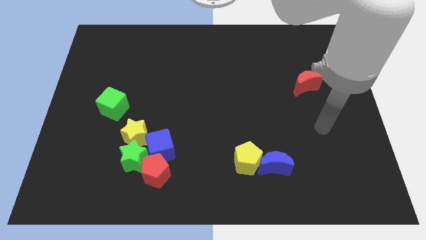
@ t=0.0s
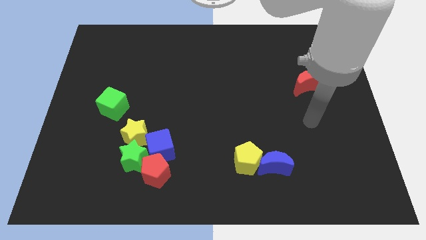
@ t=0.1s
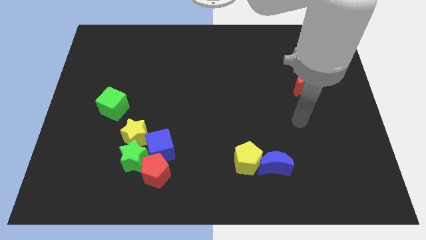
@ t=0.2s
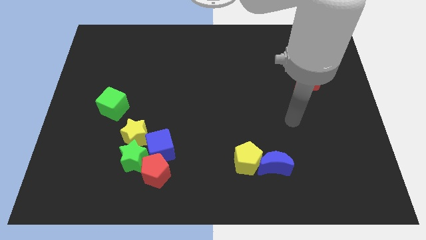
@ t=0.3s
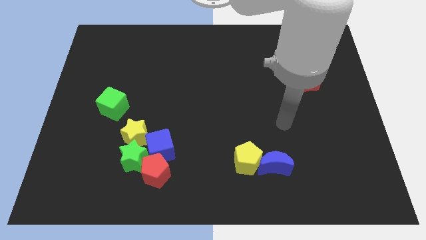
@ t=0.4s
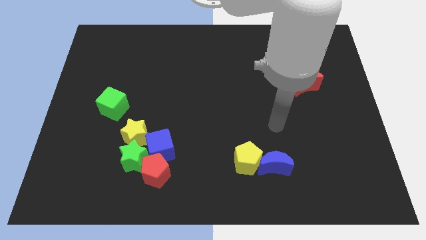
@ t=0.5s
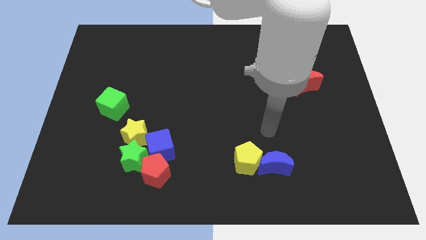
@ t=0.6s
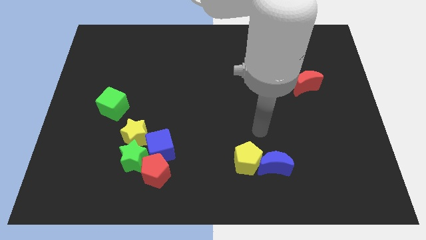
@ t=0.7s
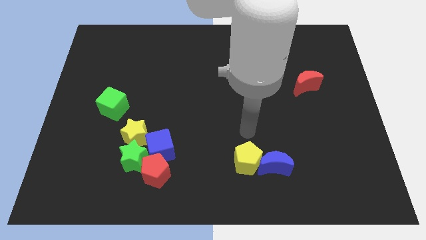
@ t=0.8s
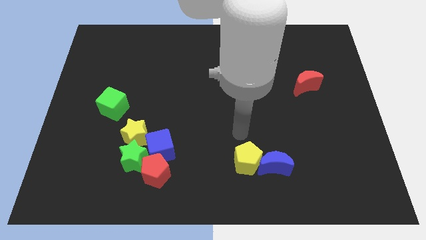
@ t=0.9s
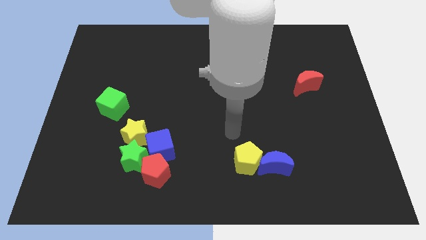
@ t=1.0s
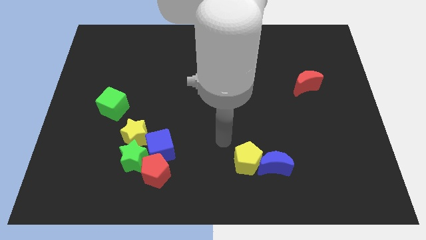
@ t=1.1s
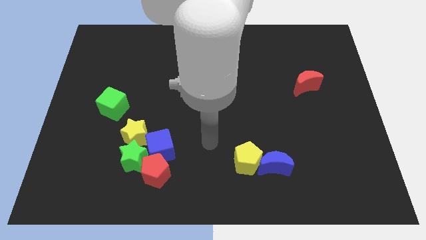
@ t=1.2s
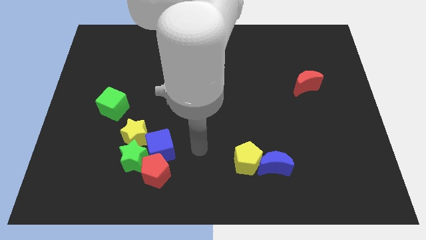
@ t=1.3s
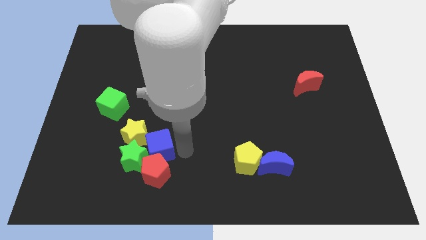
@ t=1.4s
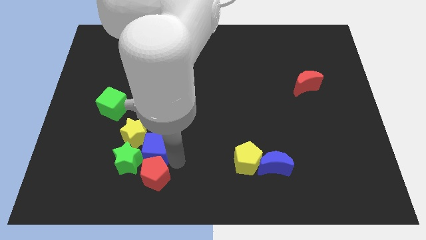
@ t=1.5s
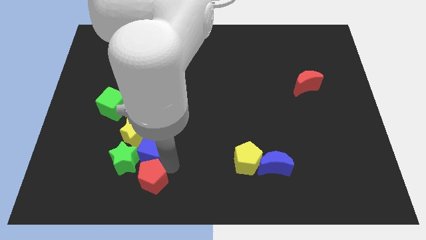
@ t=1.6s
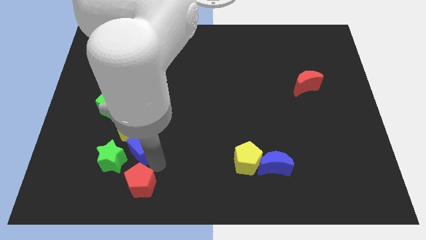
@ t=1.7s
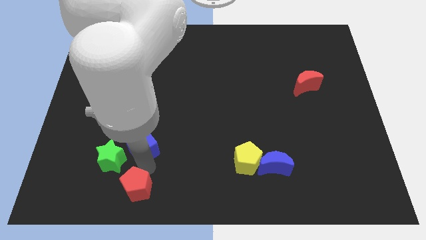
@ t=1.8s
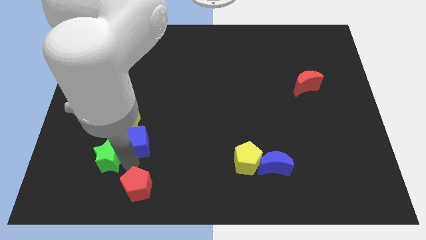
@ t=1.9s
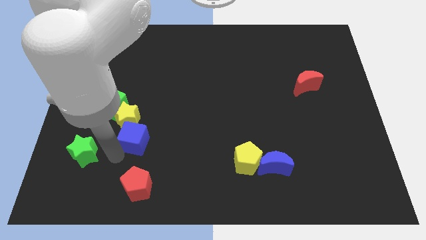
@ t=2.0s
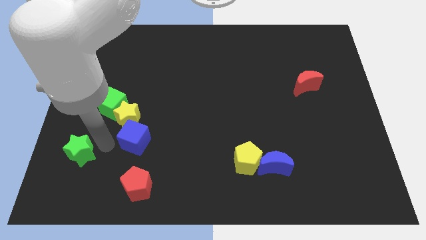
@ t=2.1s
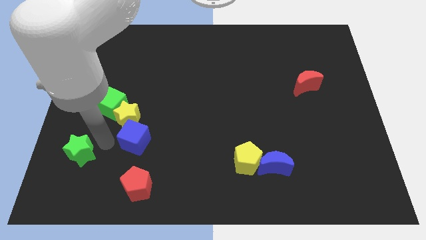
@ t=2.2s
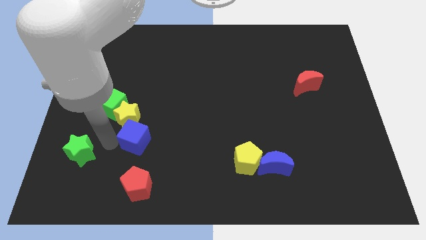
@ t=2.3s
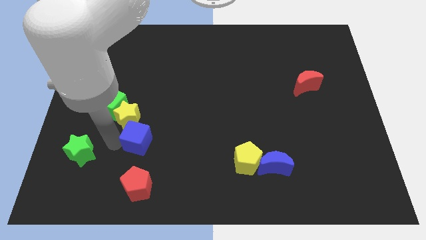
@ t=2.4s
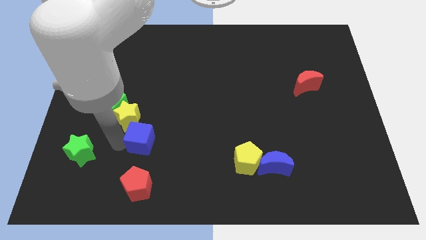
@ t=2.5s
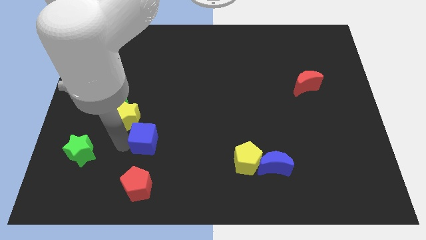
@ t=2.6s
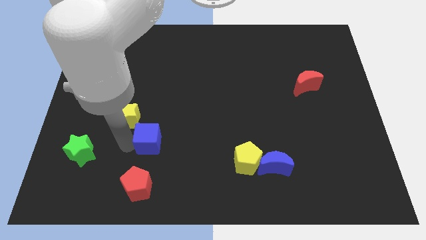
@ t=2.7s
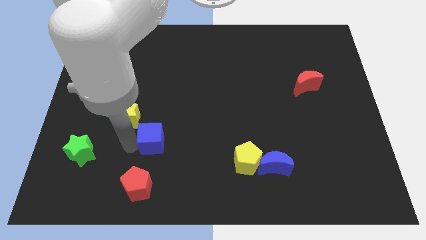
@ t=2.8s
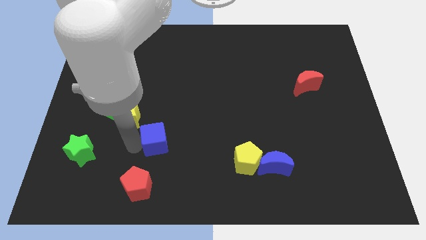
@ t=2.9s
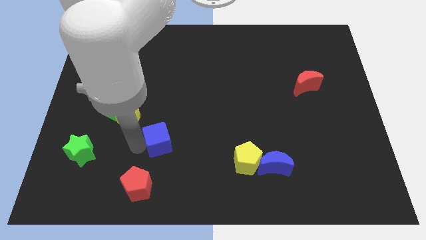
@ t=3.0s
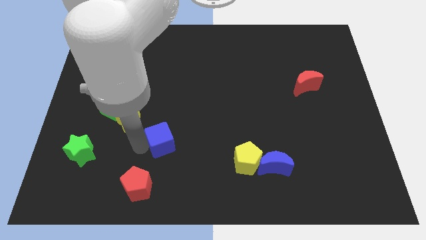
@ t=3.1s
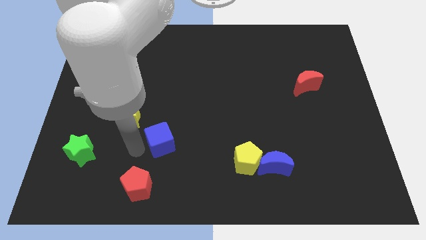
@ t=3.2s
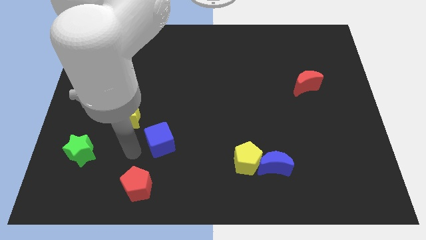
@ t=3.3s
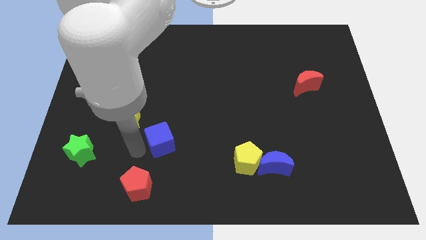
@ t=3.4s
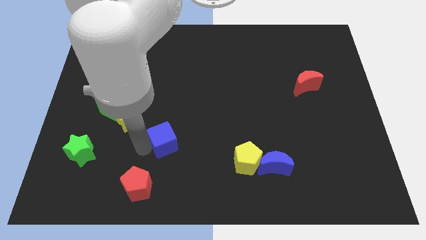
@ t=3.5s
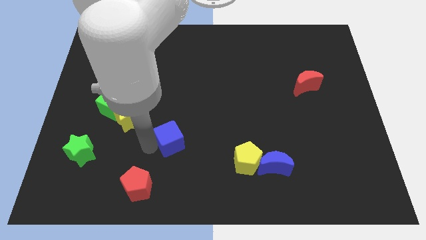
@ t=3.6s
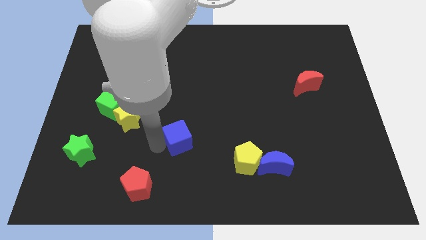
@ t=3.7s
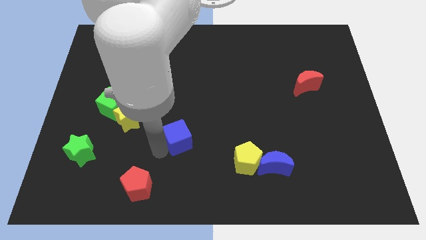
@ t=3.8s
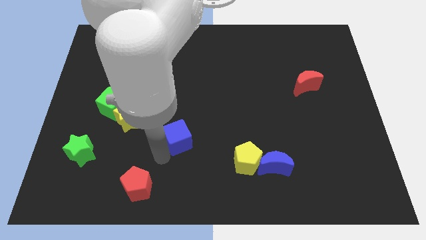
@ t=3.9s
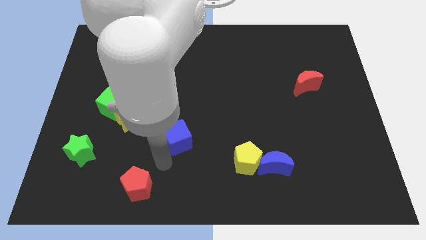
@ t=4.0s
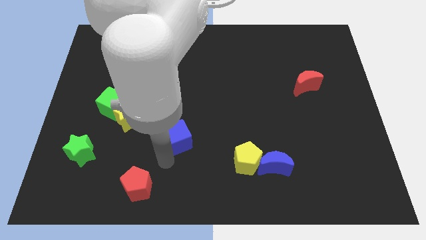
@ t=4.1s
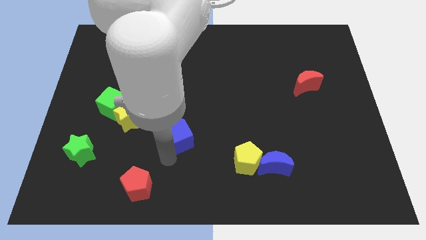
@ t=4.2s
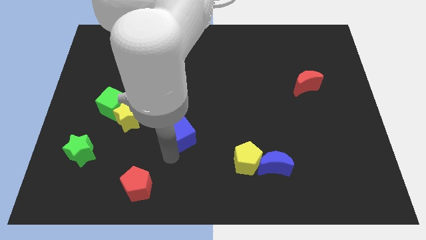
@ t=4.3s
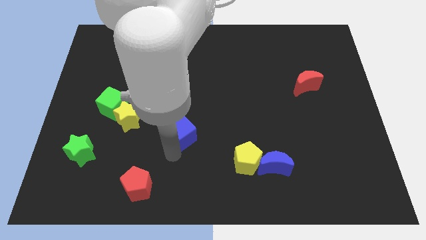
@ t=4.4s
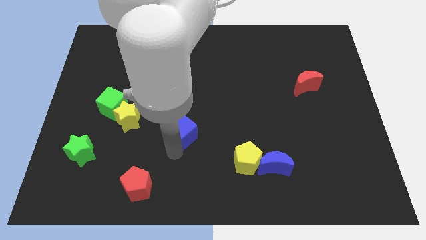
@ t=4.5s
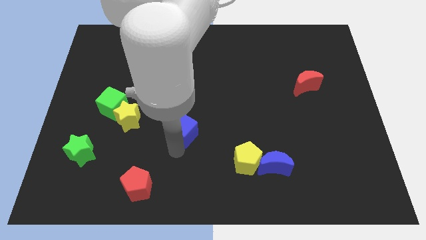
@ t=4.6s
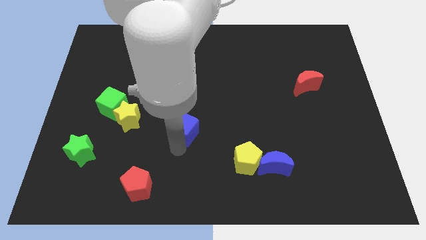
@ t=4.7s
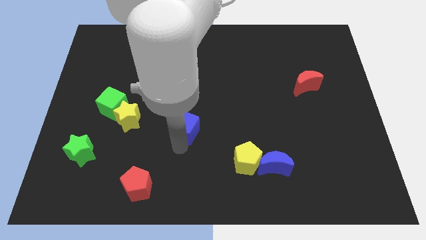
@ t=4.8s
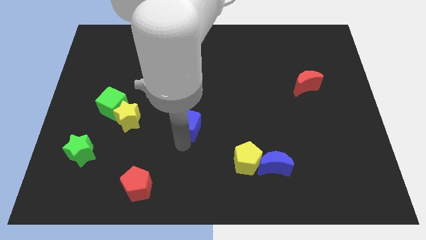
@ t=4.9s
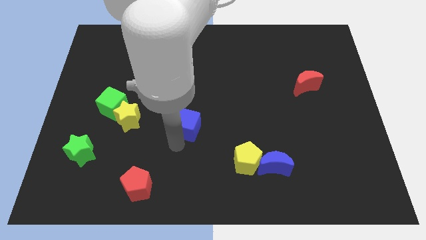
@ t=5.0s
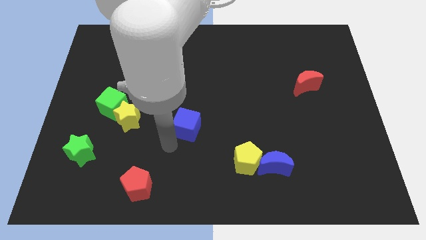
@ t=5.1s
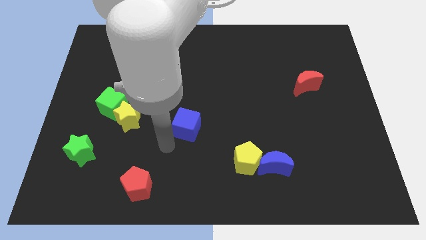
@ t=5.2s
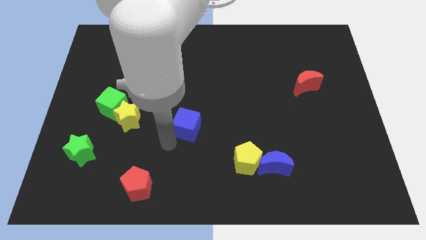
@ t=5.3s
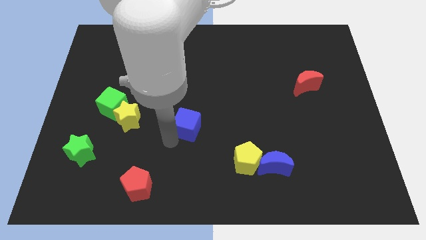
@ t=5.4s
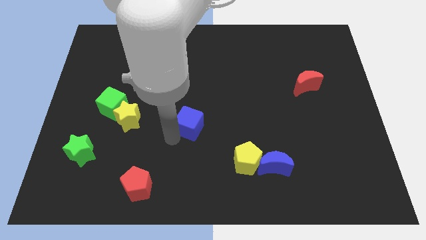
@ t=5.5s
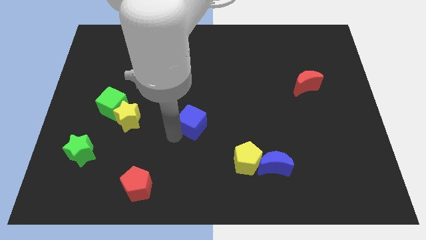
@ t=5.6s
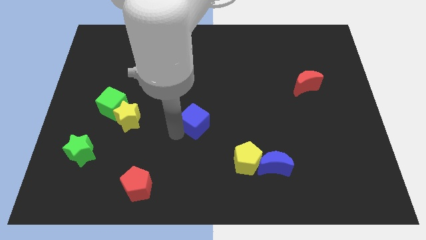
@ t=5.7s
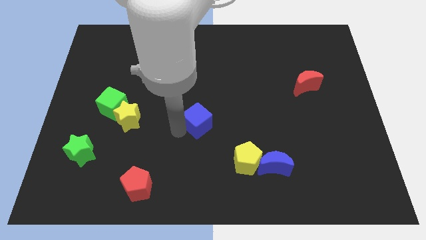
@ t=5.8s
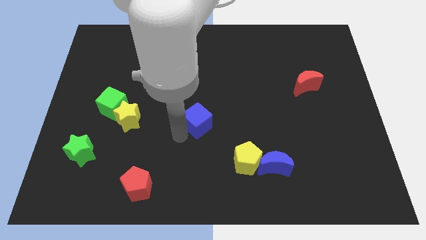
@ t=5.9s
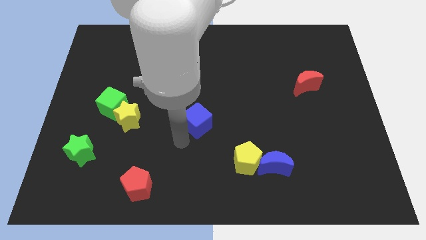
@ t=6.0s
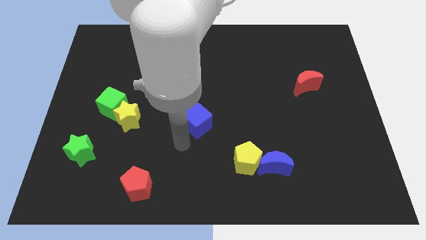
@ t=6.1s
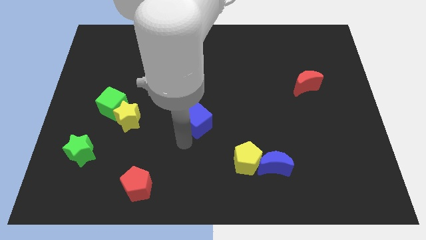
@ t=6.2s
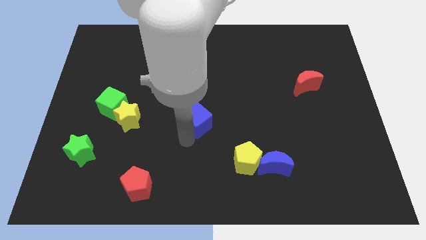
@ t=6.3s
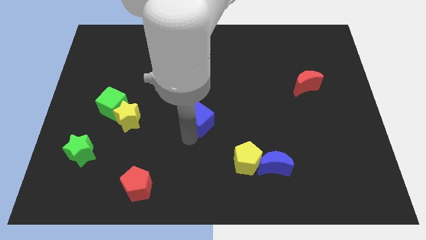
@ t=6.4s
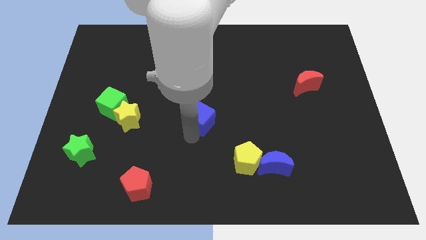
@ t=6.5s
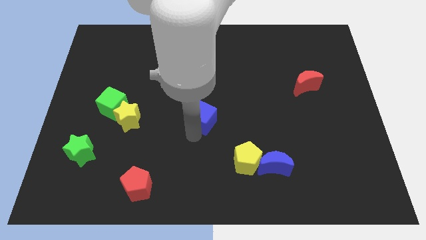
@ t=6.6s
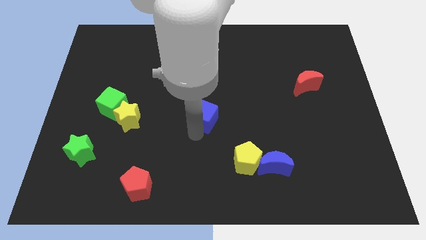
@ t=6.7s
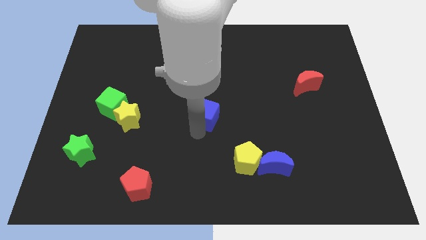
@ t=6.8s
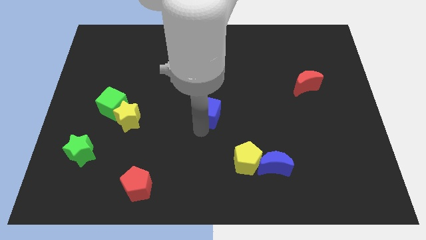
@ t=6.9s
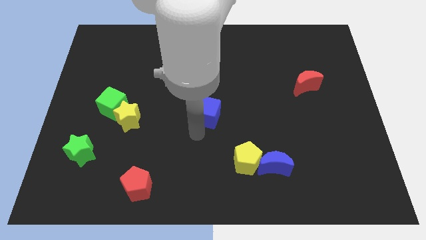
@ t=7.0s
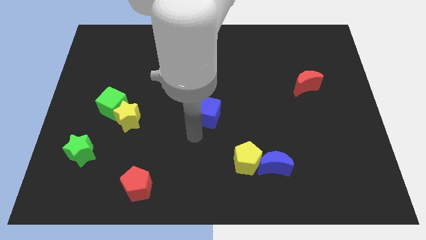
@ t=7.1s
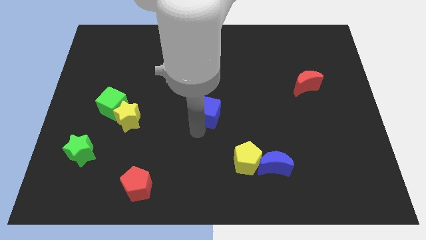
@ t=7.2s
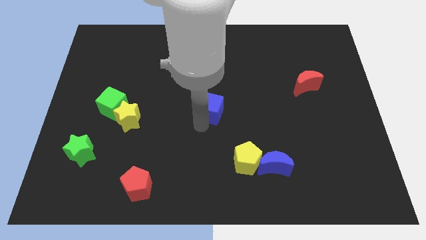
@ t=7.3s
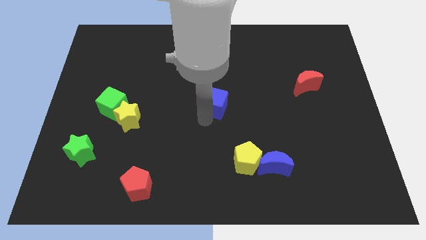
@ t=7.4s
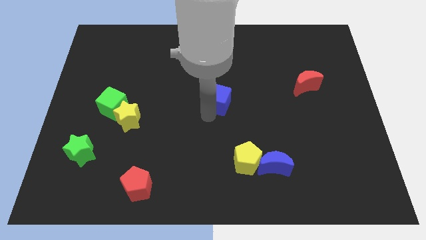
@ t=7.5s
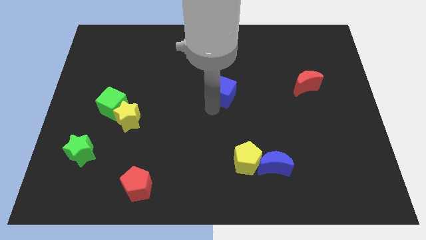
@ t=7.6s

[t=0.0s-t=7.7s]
slide the blue cube upwards and then right

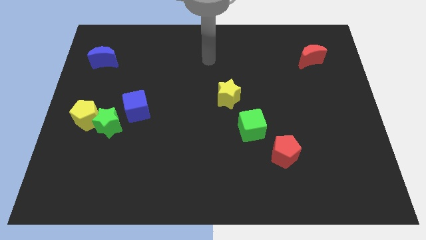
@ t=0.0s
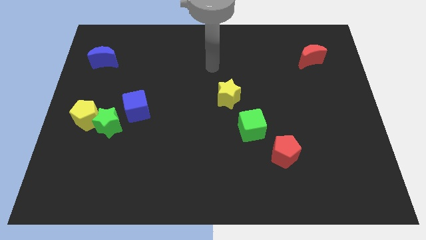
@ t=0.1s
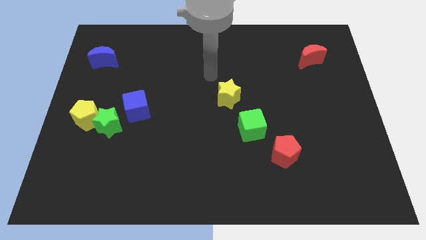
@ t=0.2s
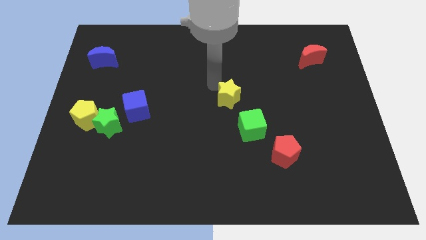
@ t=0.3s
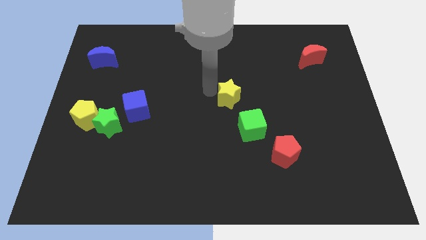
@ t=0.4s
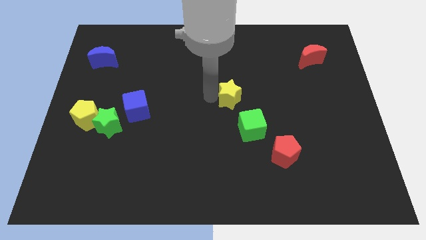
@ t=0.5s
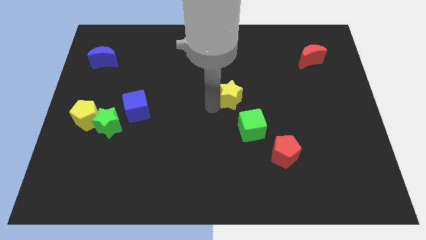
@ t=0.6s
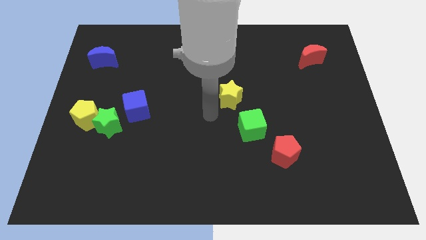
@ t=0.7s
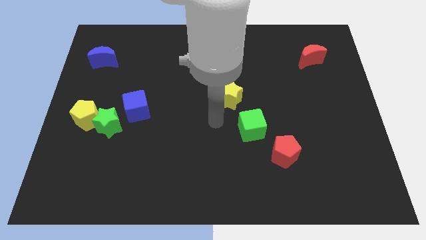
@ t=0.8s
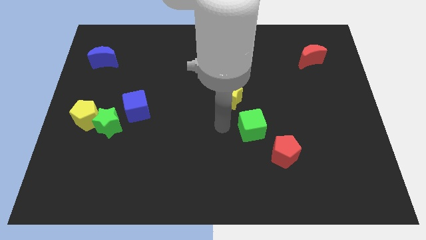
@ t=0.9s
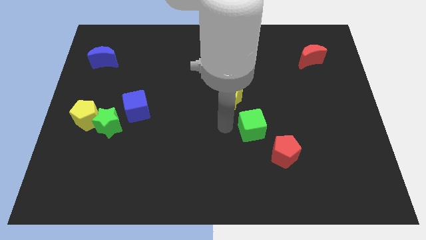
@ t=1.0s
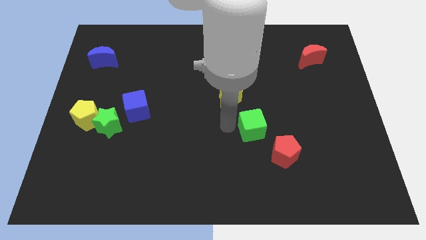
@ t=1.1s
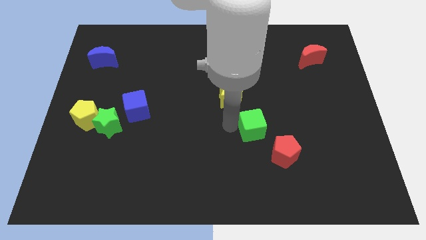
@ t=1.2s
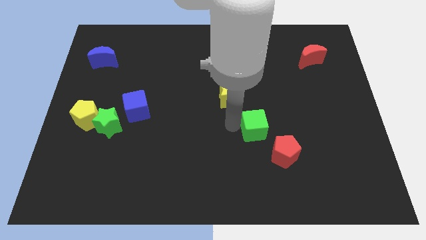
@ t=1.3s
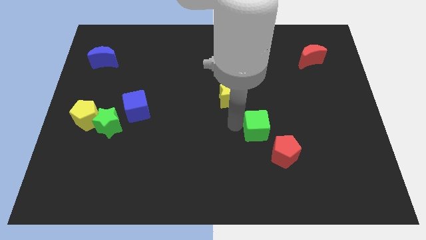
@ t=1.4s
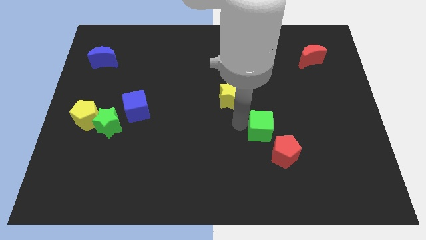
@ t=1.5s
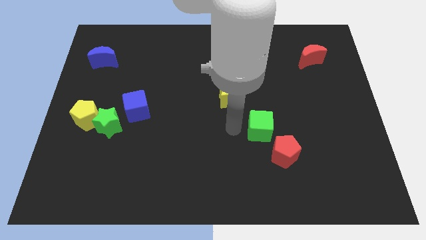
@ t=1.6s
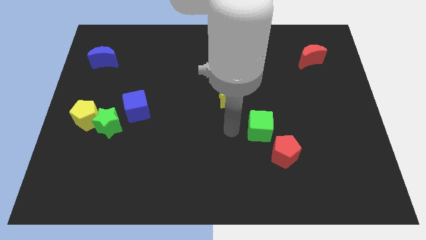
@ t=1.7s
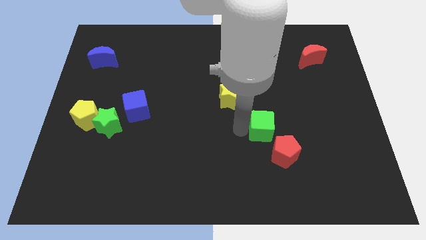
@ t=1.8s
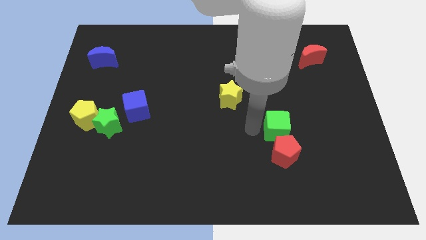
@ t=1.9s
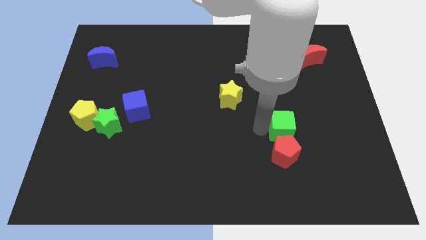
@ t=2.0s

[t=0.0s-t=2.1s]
slightly move the green cube to the right
